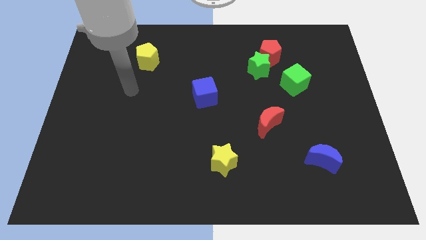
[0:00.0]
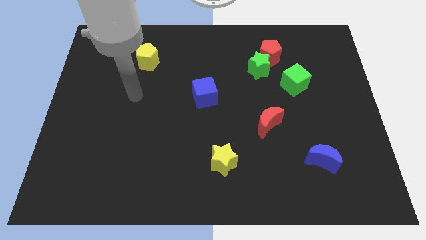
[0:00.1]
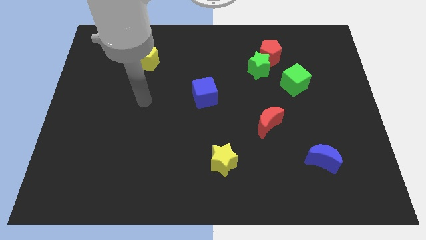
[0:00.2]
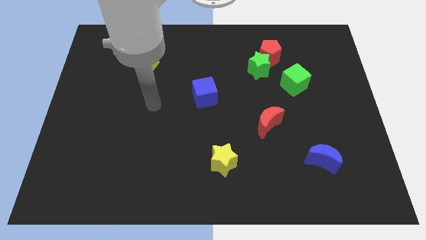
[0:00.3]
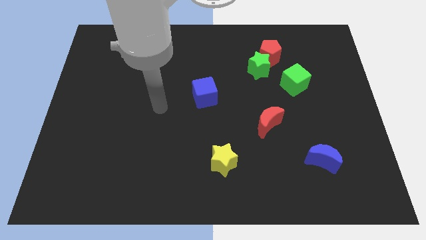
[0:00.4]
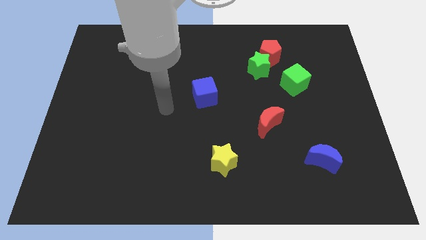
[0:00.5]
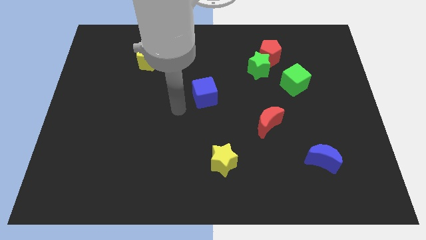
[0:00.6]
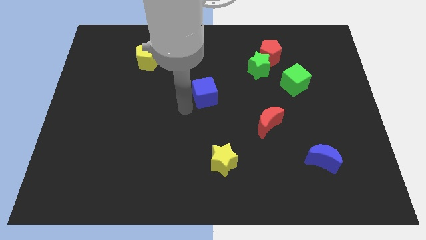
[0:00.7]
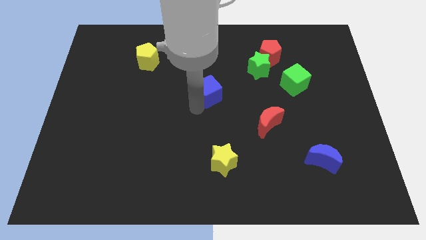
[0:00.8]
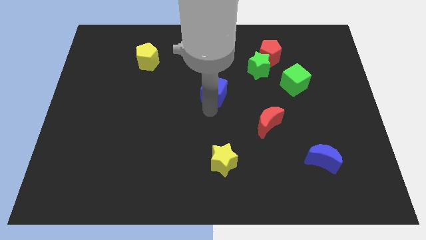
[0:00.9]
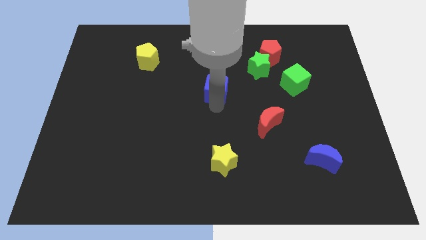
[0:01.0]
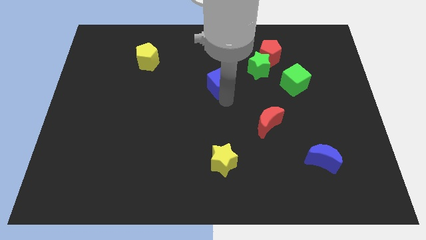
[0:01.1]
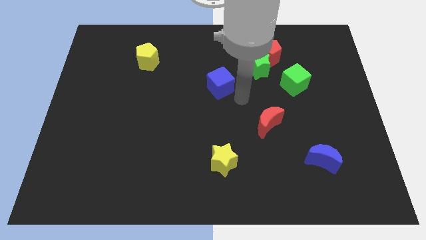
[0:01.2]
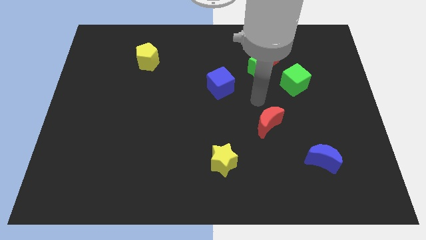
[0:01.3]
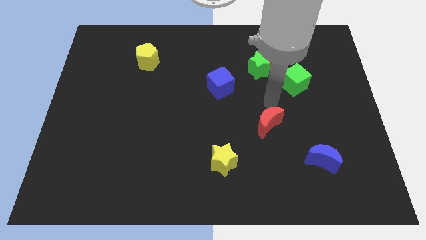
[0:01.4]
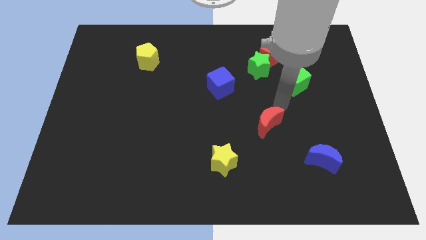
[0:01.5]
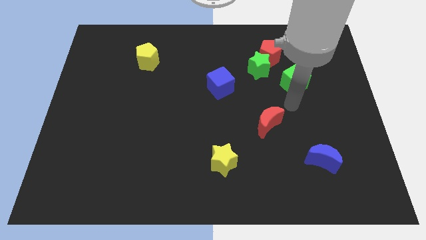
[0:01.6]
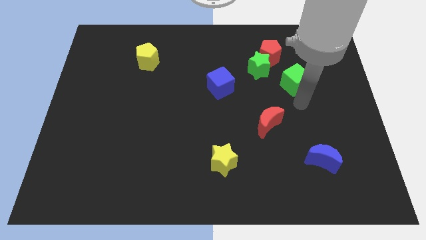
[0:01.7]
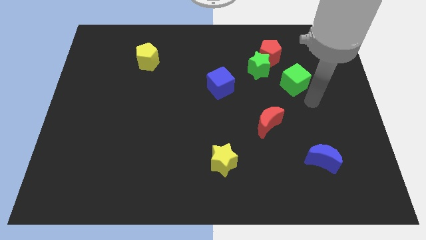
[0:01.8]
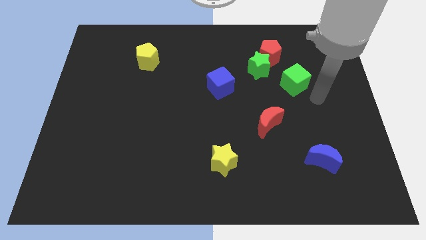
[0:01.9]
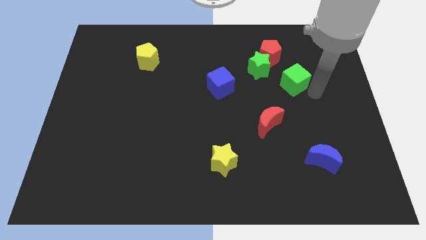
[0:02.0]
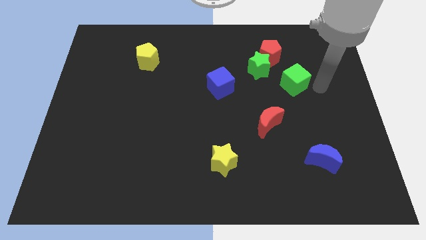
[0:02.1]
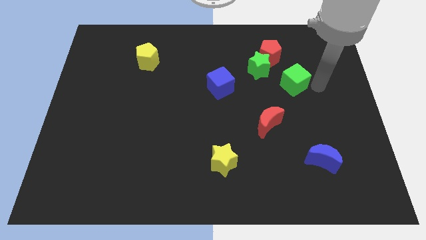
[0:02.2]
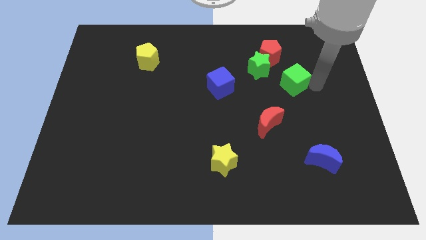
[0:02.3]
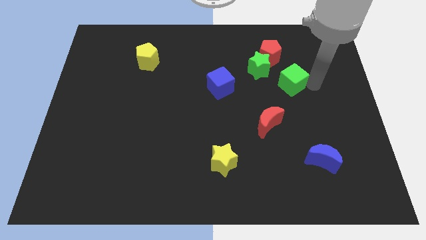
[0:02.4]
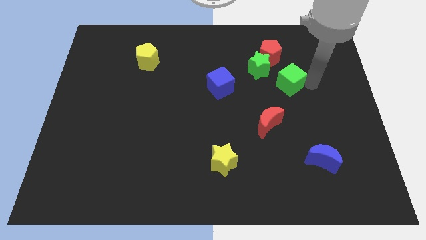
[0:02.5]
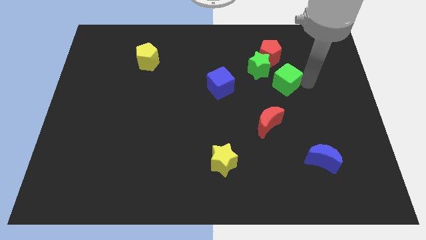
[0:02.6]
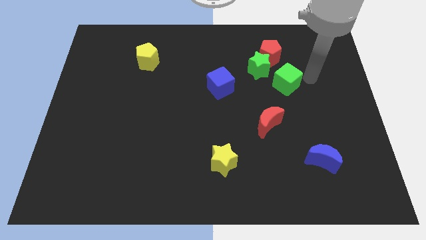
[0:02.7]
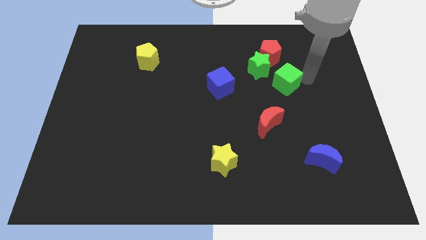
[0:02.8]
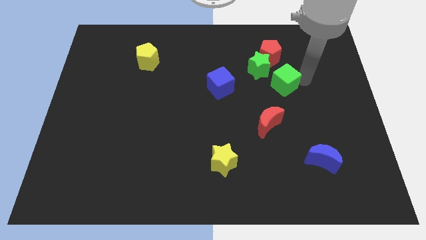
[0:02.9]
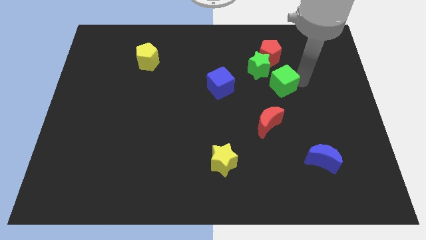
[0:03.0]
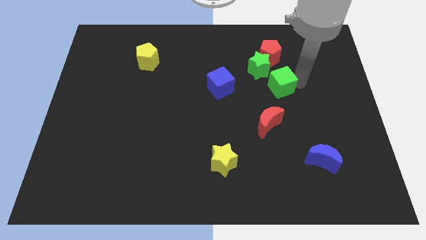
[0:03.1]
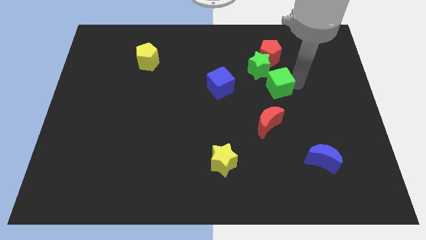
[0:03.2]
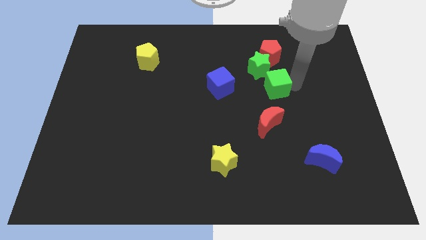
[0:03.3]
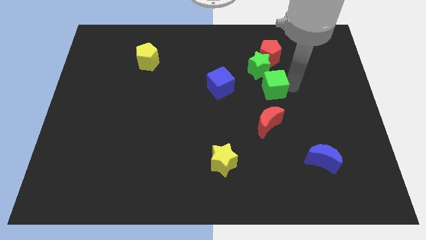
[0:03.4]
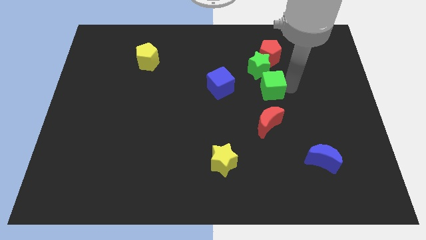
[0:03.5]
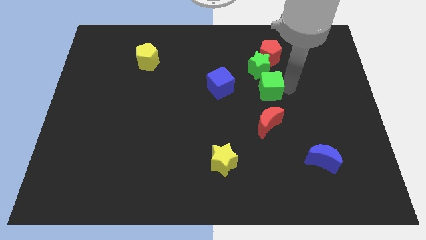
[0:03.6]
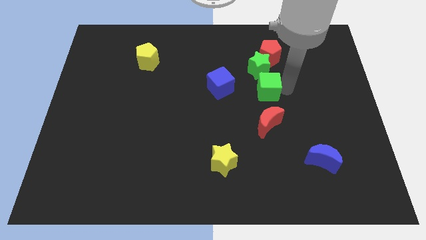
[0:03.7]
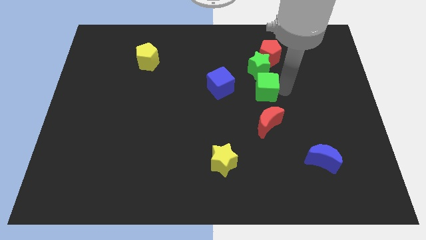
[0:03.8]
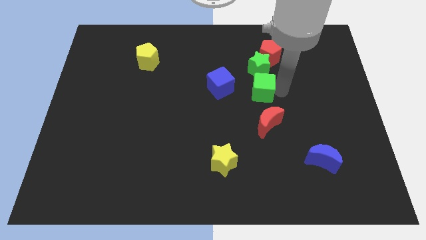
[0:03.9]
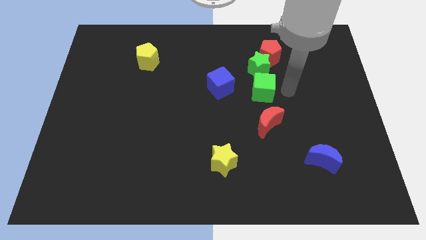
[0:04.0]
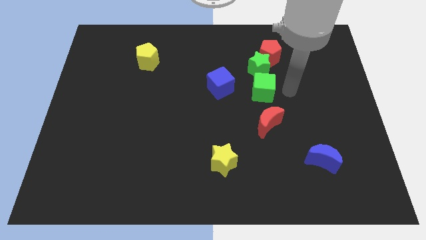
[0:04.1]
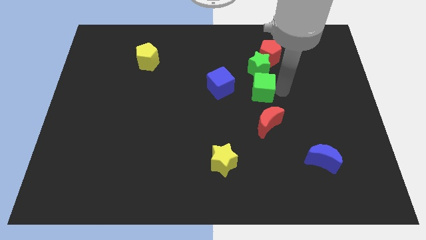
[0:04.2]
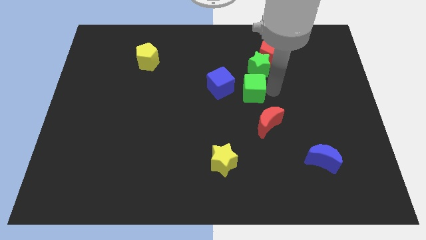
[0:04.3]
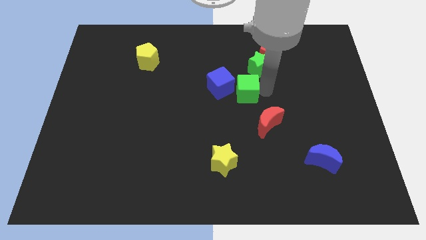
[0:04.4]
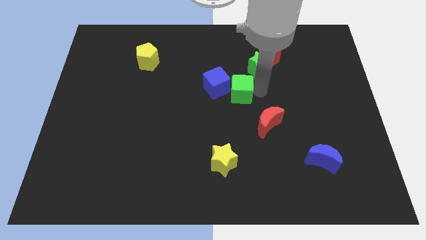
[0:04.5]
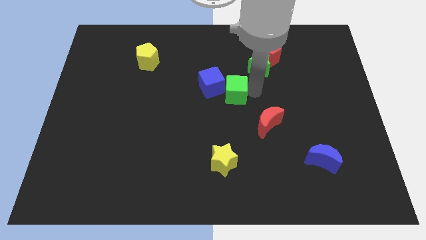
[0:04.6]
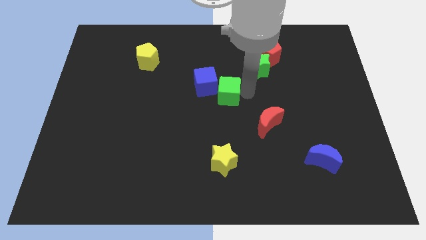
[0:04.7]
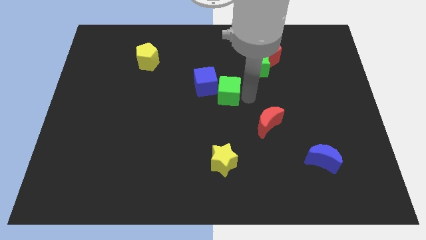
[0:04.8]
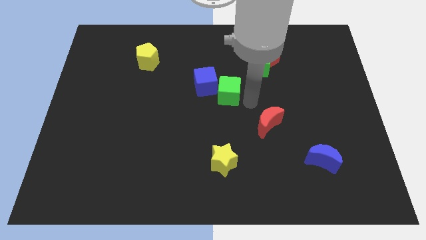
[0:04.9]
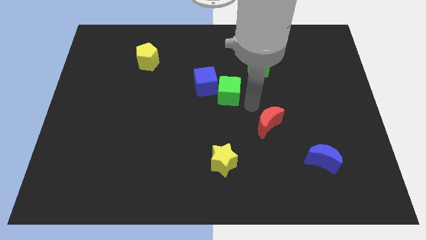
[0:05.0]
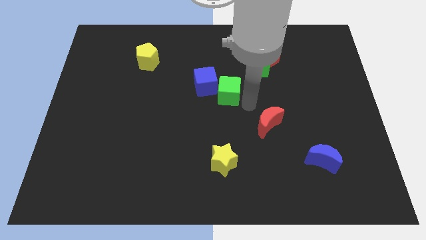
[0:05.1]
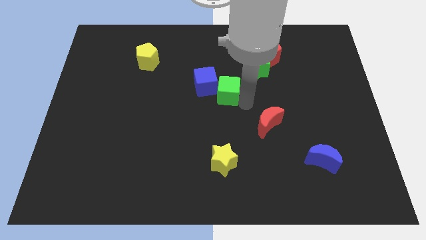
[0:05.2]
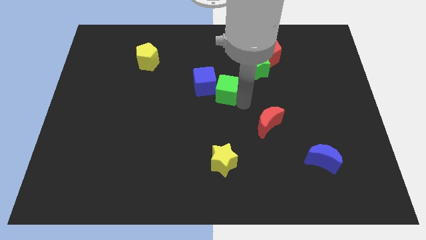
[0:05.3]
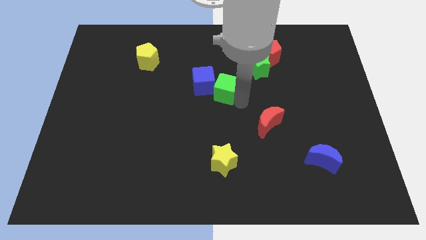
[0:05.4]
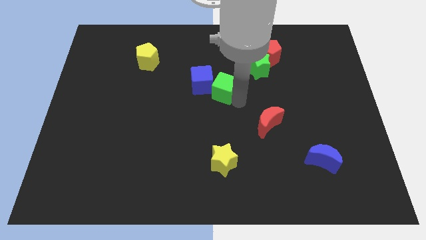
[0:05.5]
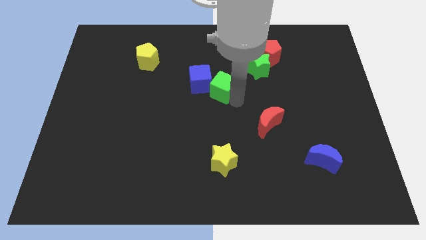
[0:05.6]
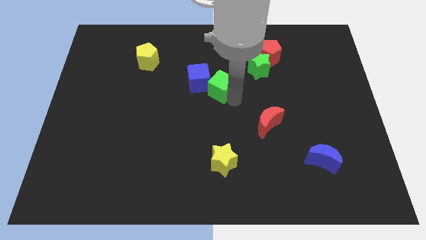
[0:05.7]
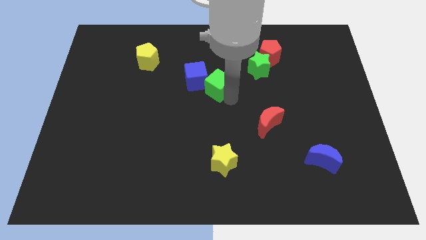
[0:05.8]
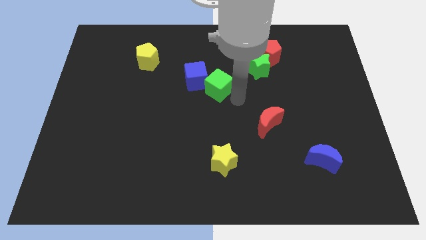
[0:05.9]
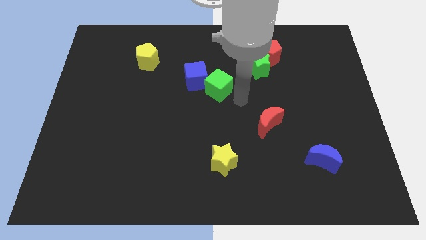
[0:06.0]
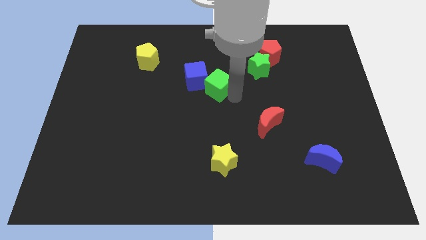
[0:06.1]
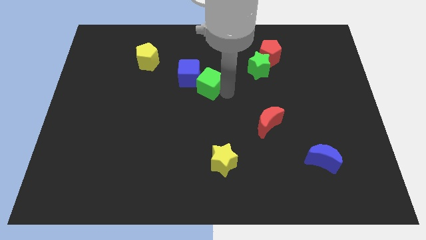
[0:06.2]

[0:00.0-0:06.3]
push the green cube left

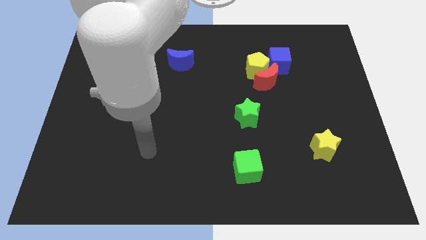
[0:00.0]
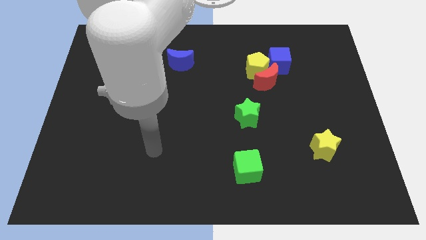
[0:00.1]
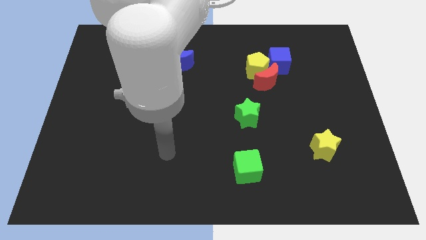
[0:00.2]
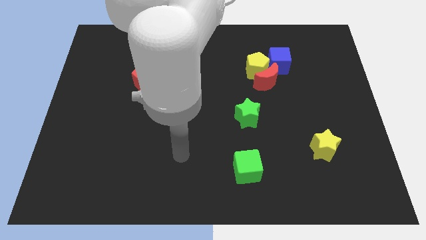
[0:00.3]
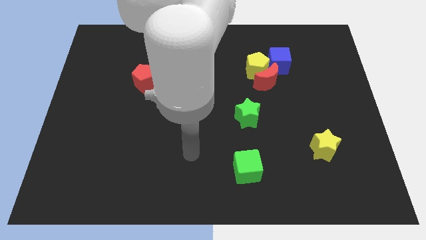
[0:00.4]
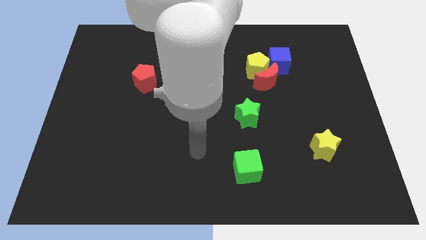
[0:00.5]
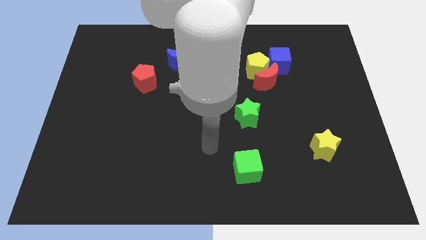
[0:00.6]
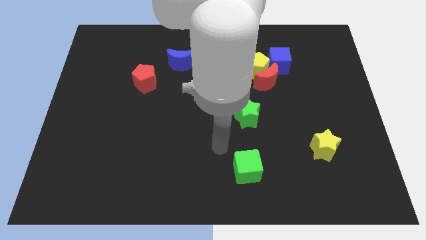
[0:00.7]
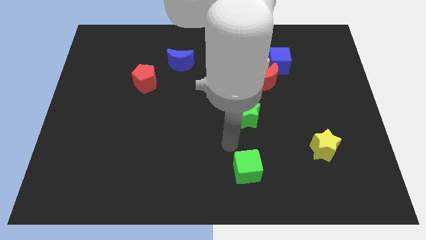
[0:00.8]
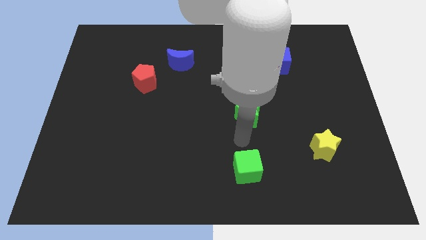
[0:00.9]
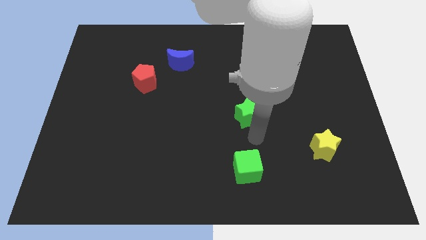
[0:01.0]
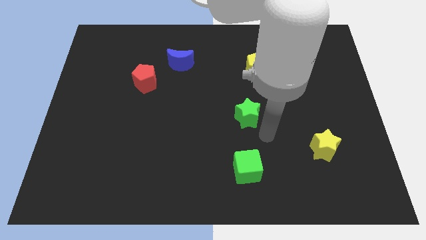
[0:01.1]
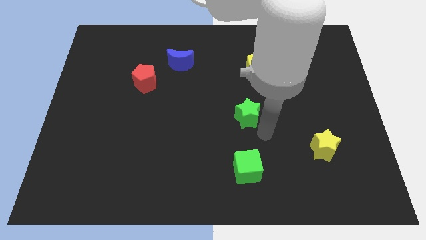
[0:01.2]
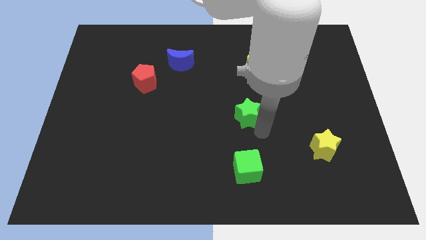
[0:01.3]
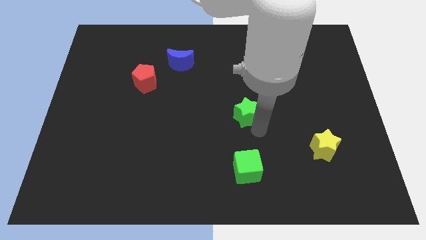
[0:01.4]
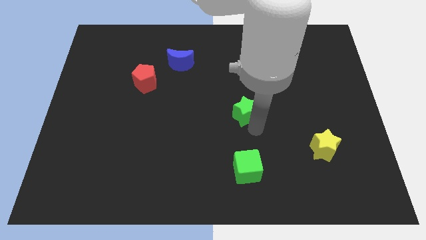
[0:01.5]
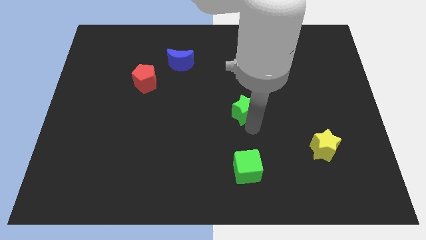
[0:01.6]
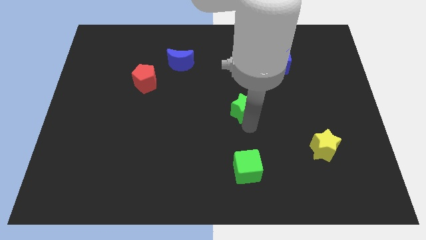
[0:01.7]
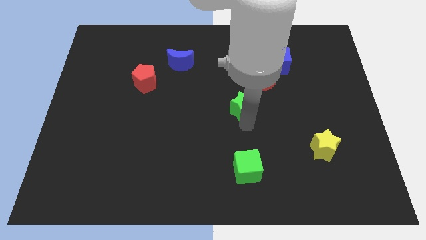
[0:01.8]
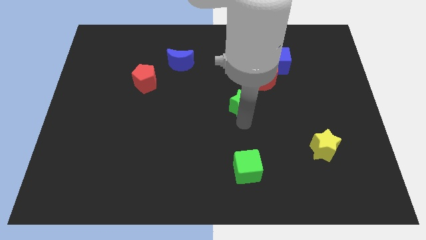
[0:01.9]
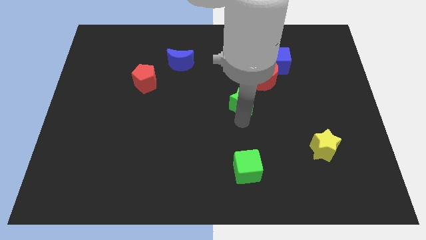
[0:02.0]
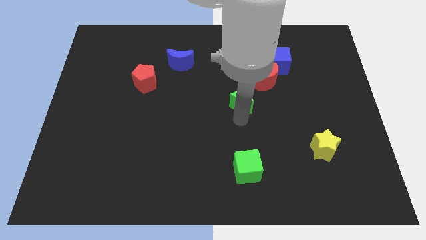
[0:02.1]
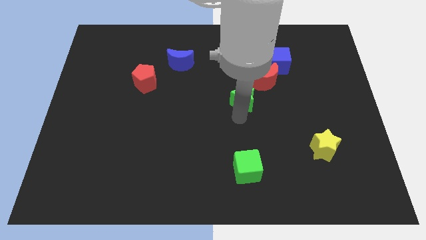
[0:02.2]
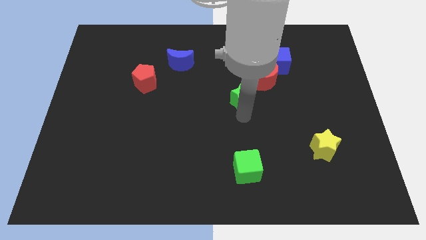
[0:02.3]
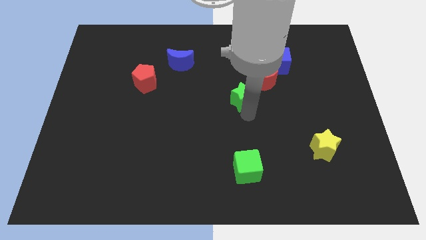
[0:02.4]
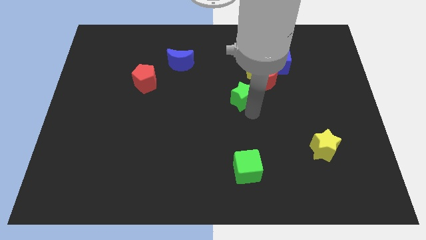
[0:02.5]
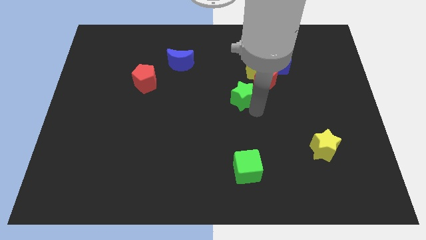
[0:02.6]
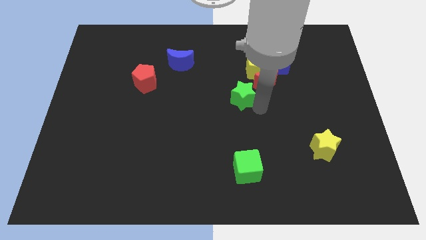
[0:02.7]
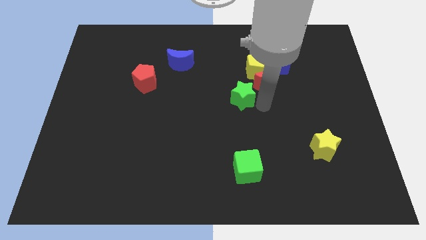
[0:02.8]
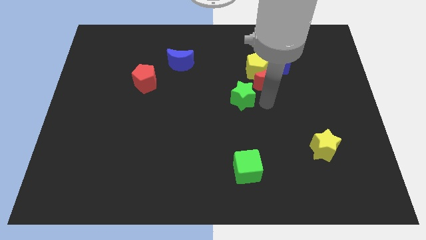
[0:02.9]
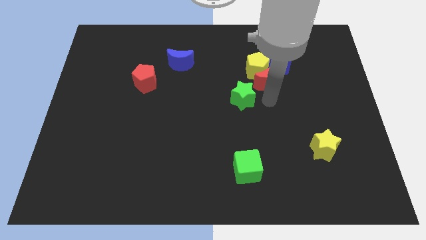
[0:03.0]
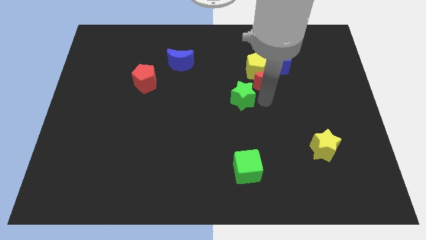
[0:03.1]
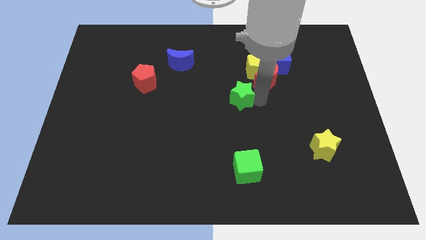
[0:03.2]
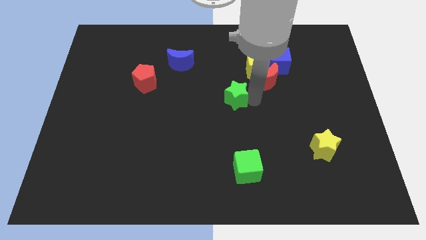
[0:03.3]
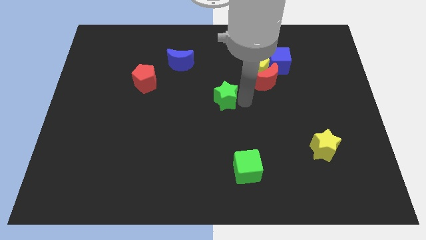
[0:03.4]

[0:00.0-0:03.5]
slide the green star a little up and then left
